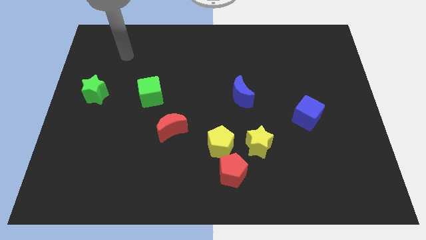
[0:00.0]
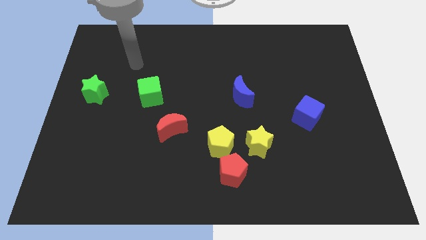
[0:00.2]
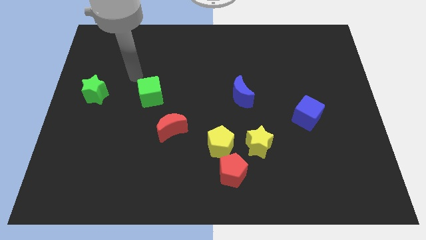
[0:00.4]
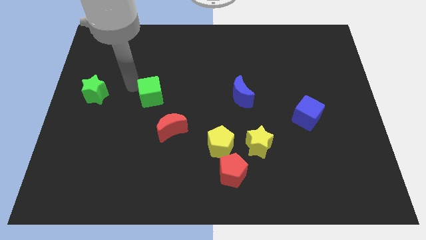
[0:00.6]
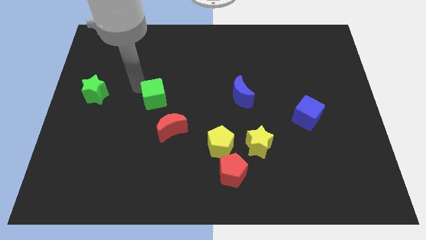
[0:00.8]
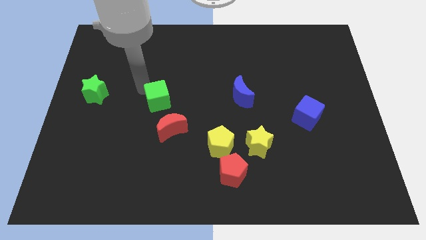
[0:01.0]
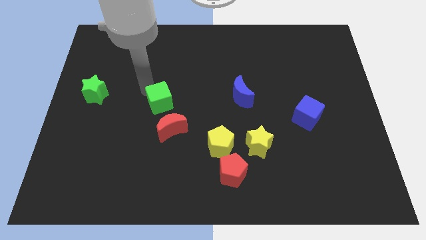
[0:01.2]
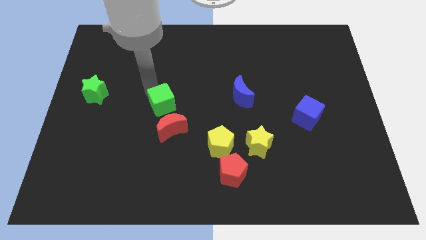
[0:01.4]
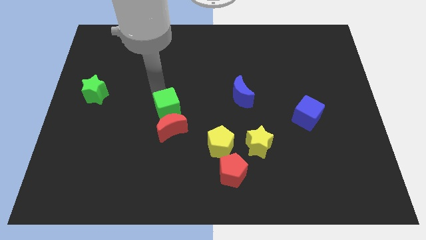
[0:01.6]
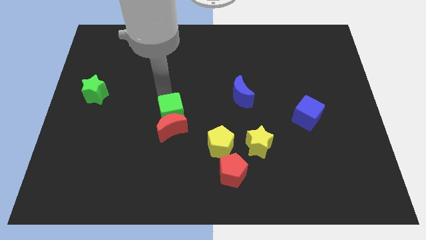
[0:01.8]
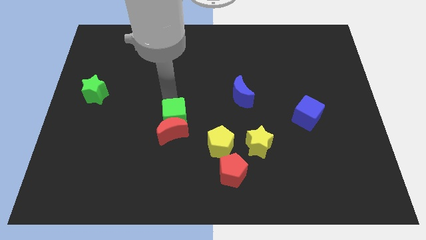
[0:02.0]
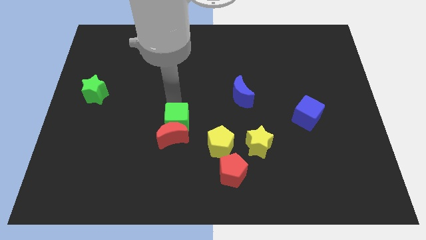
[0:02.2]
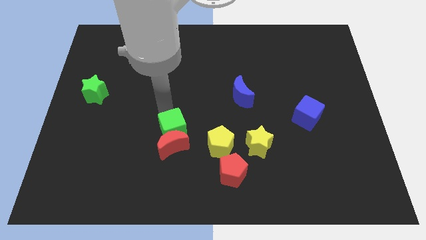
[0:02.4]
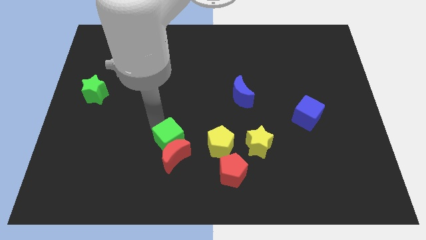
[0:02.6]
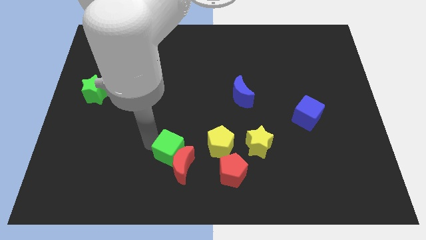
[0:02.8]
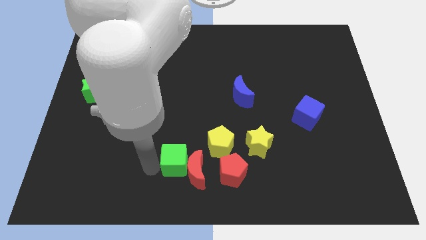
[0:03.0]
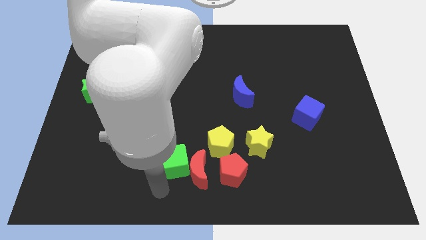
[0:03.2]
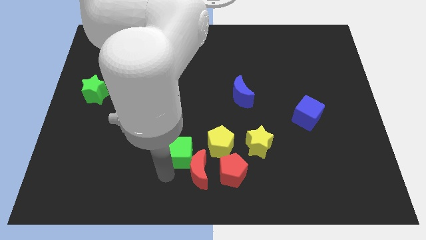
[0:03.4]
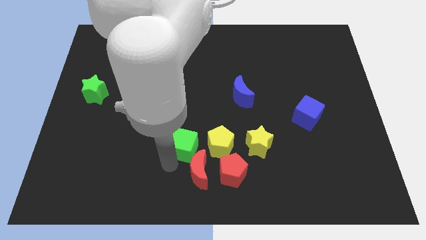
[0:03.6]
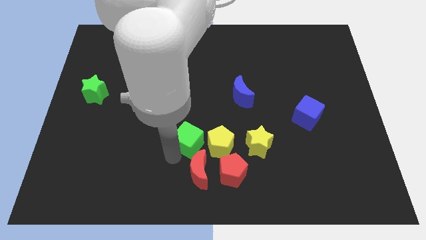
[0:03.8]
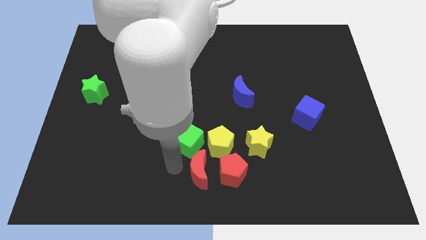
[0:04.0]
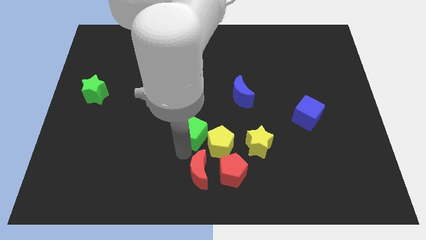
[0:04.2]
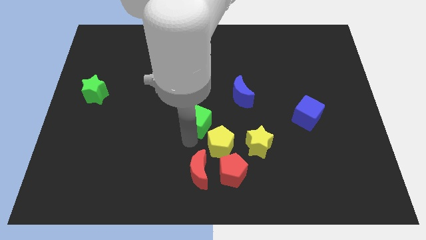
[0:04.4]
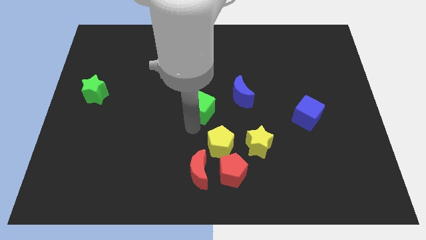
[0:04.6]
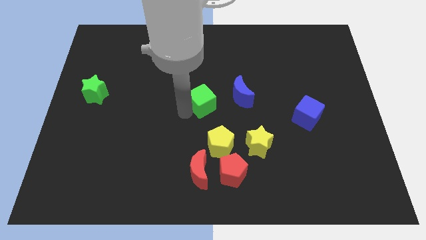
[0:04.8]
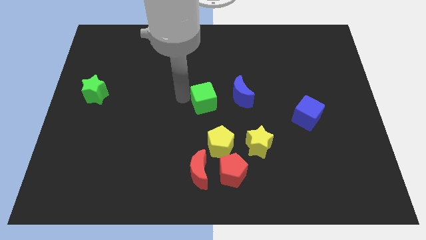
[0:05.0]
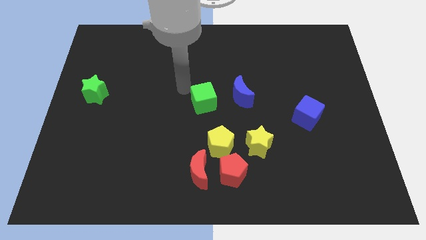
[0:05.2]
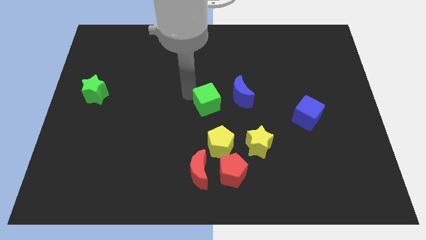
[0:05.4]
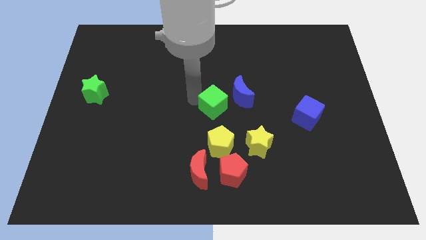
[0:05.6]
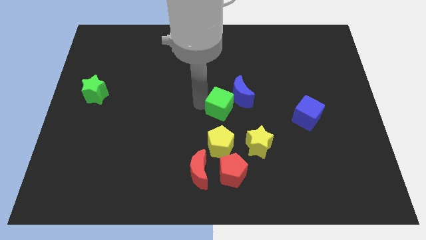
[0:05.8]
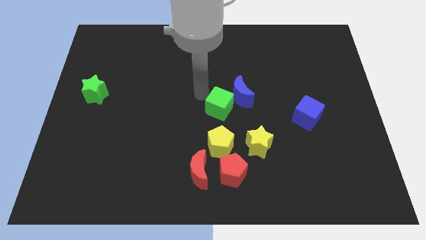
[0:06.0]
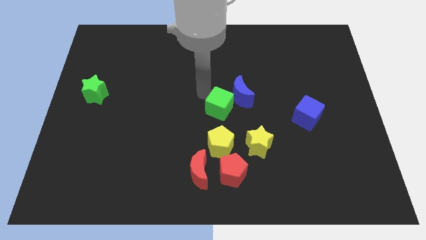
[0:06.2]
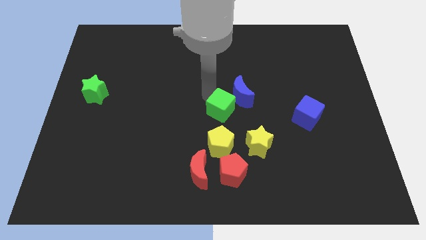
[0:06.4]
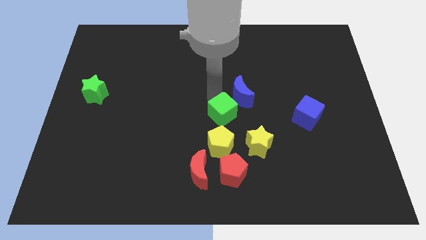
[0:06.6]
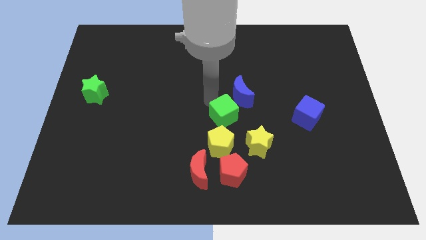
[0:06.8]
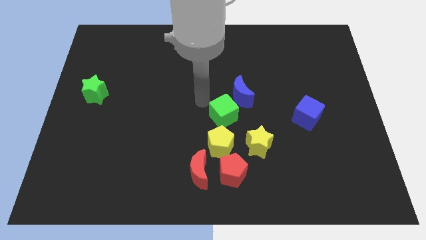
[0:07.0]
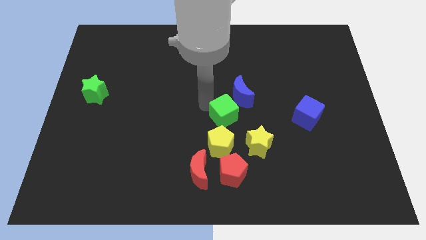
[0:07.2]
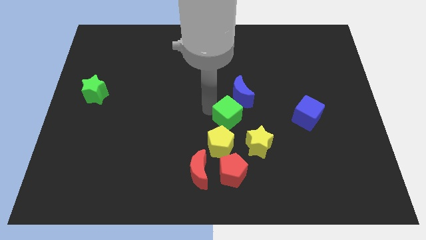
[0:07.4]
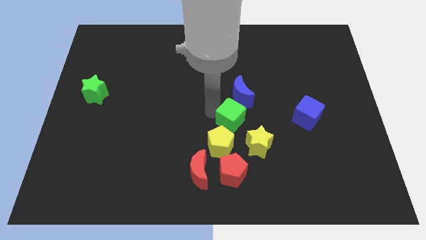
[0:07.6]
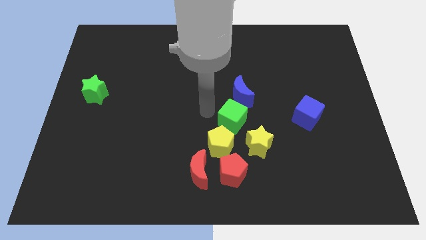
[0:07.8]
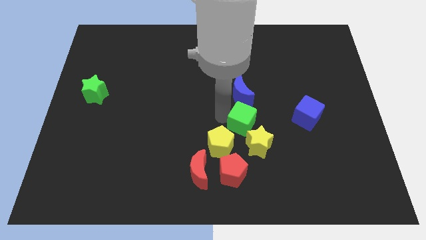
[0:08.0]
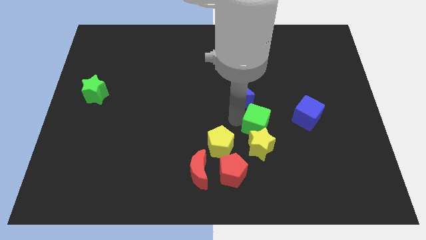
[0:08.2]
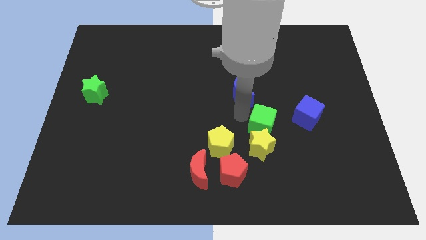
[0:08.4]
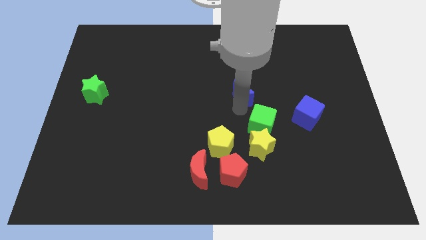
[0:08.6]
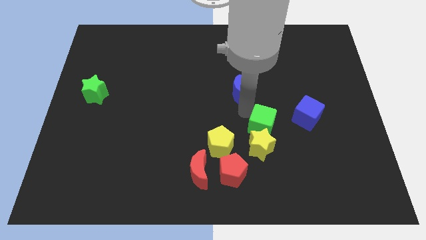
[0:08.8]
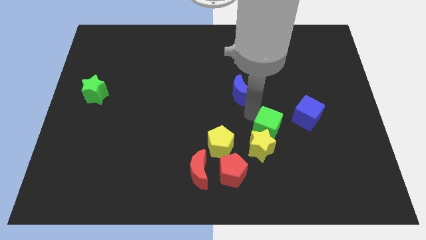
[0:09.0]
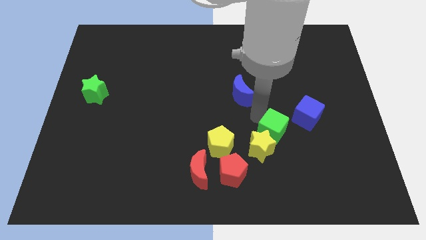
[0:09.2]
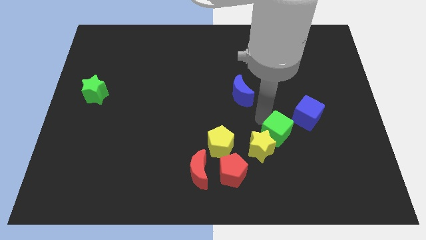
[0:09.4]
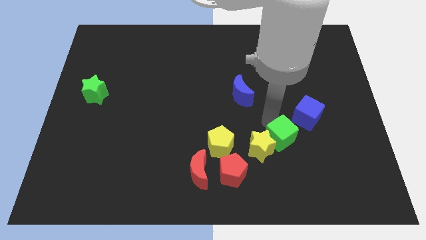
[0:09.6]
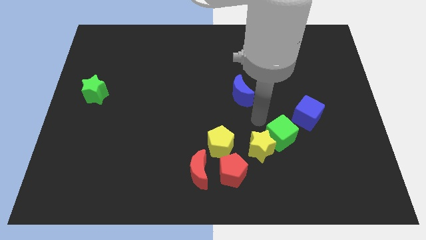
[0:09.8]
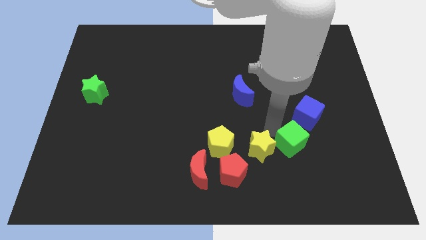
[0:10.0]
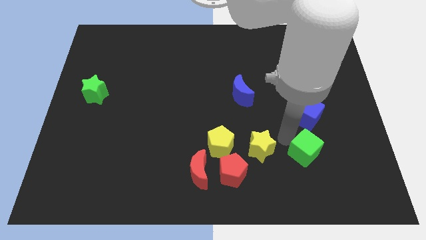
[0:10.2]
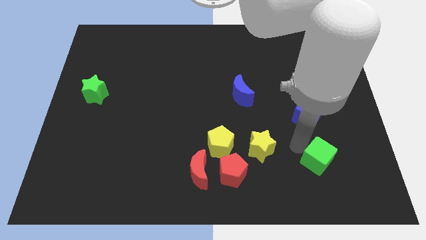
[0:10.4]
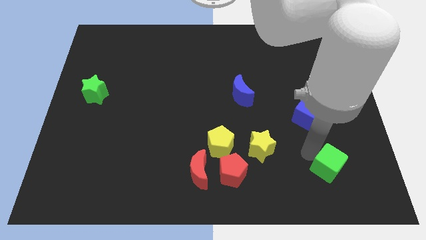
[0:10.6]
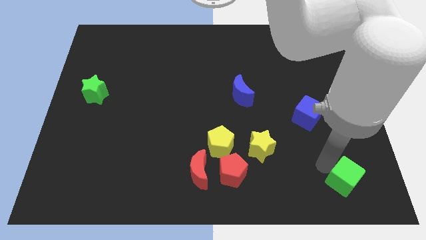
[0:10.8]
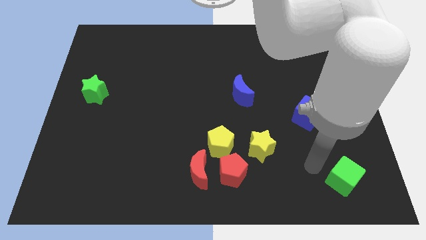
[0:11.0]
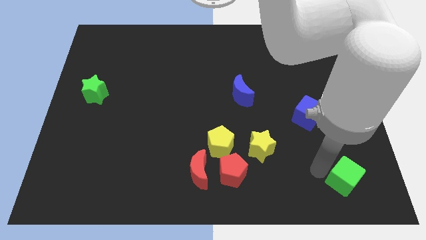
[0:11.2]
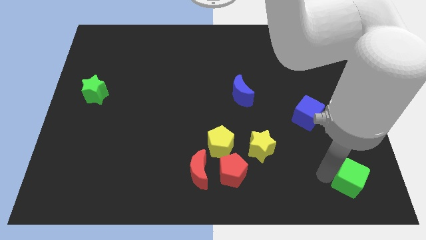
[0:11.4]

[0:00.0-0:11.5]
move the green cube to the bottom right corner

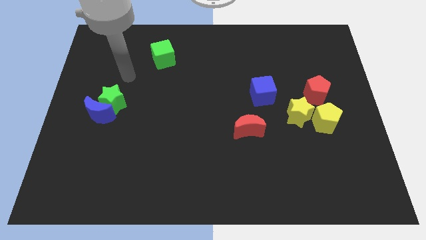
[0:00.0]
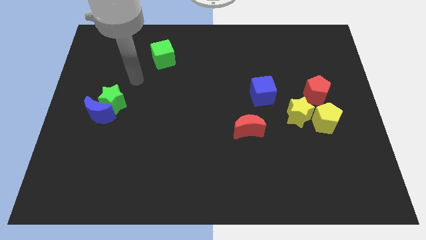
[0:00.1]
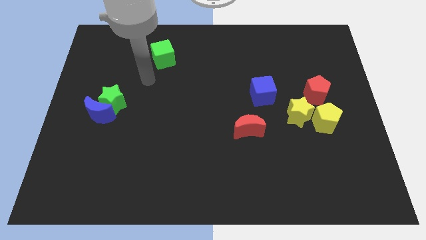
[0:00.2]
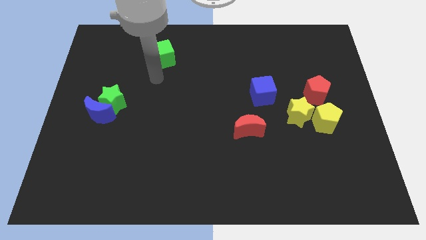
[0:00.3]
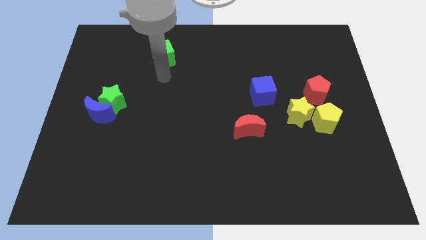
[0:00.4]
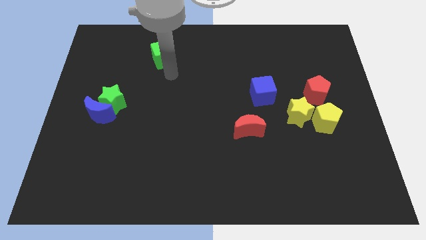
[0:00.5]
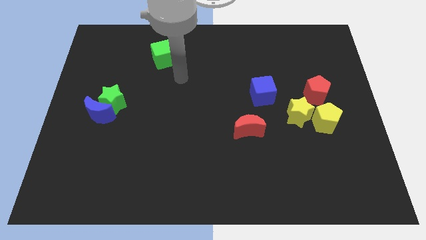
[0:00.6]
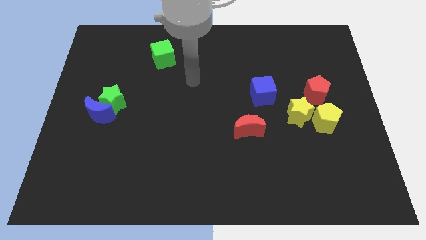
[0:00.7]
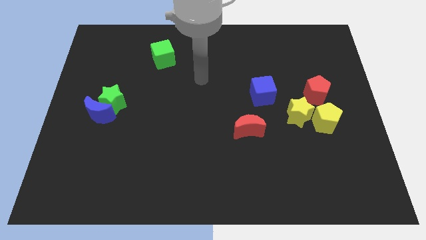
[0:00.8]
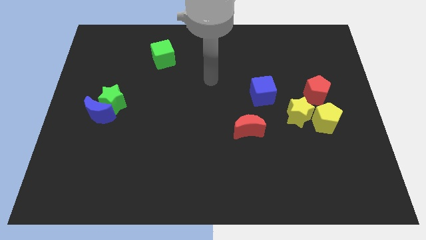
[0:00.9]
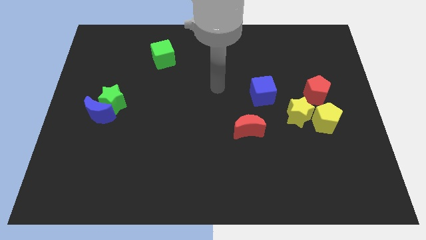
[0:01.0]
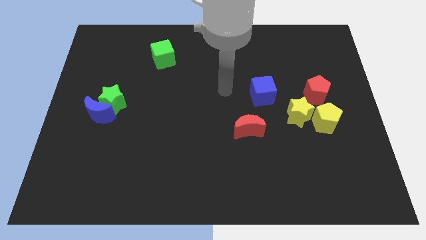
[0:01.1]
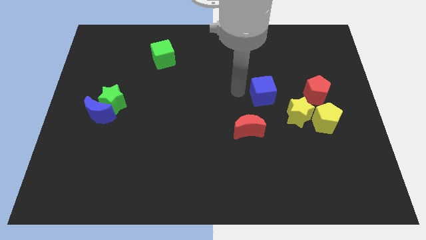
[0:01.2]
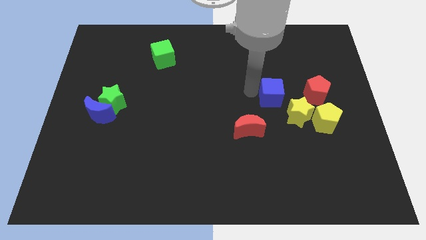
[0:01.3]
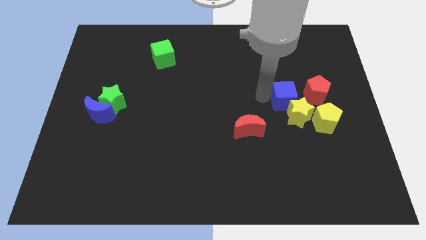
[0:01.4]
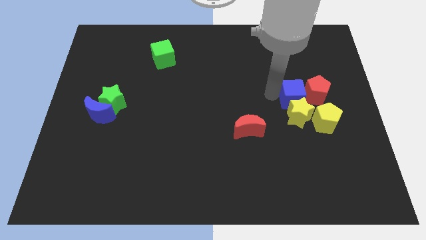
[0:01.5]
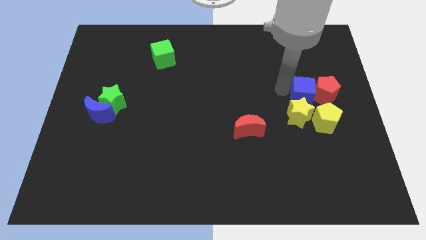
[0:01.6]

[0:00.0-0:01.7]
slide the red pentagon to the right side of the board
